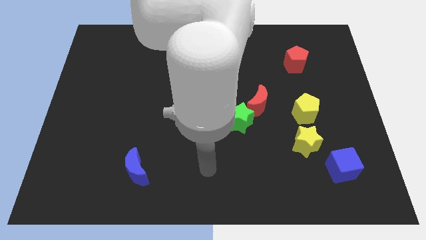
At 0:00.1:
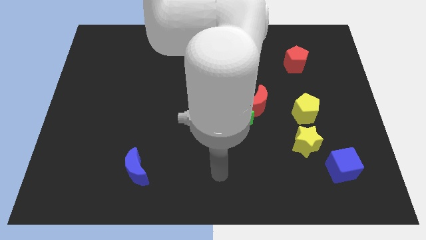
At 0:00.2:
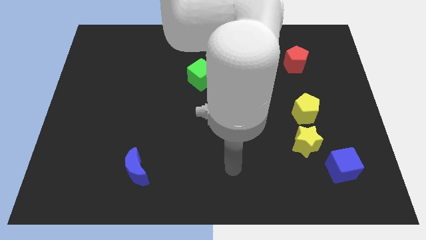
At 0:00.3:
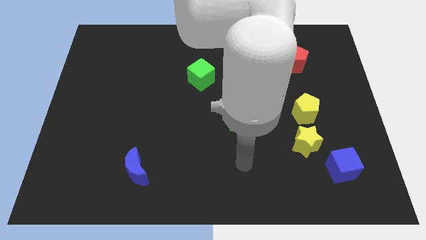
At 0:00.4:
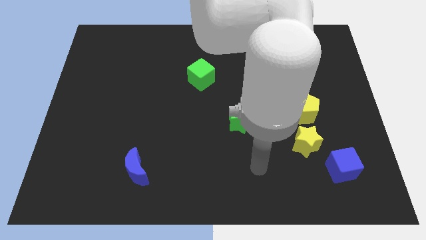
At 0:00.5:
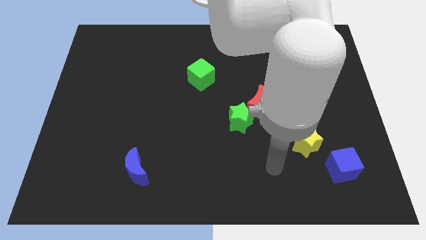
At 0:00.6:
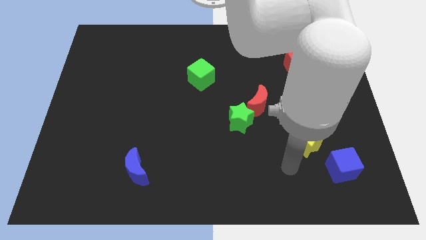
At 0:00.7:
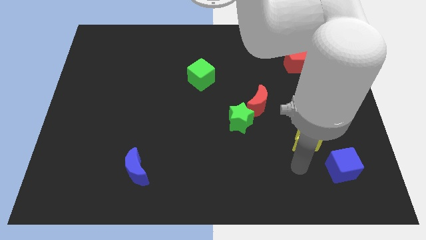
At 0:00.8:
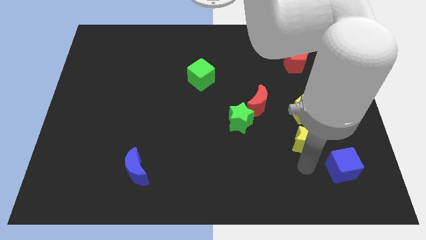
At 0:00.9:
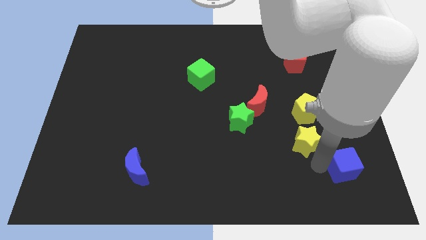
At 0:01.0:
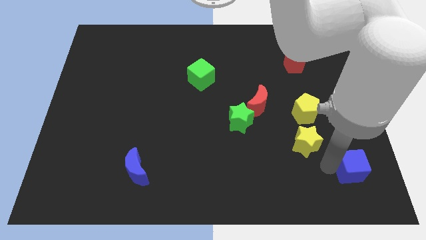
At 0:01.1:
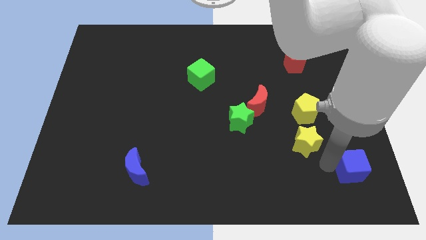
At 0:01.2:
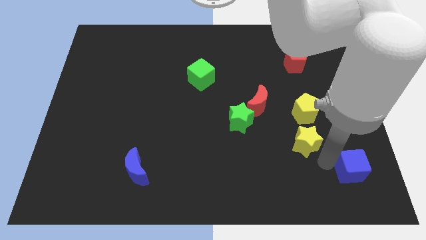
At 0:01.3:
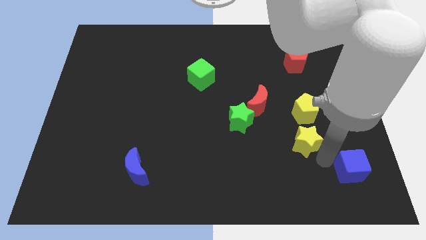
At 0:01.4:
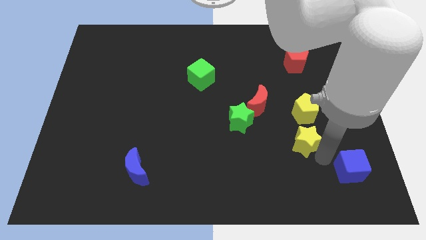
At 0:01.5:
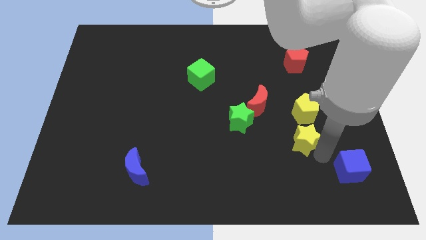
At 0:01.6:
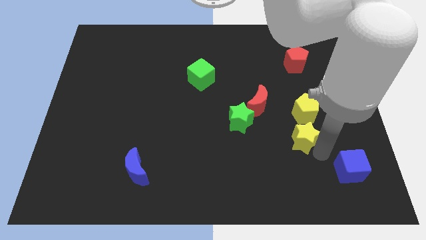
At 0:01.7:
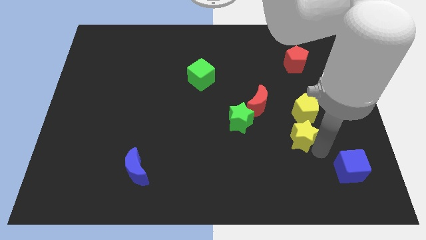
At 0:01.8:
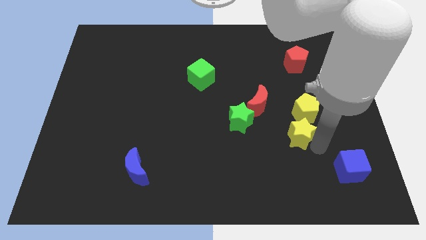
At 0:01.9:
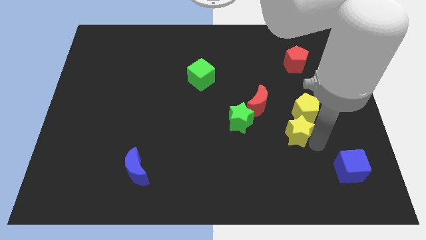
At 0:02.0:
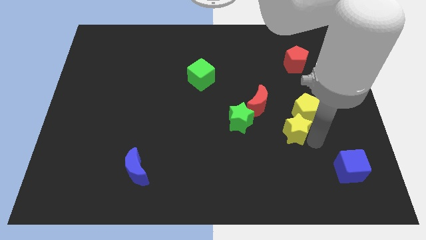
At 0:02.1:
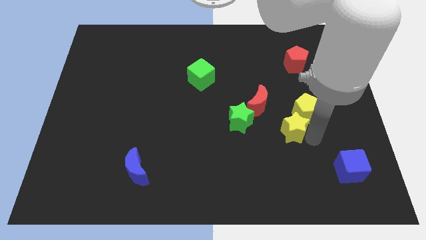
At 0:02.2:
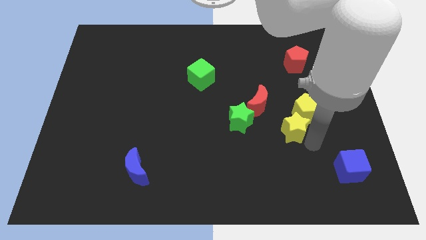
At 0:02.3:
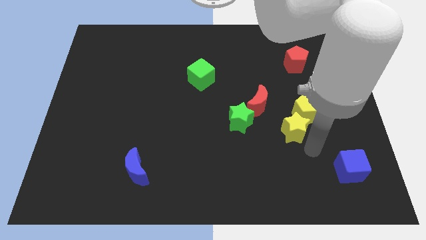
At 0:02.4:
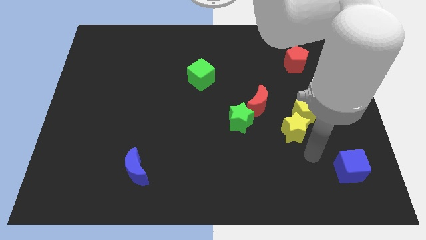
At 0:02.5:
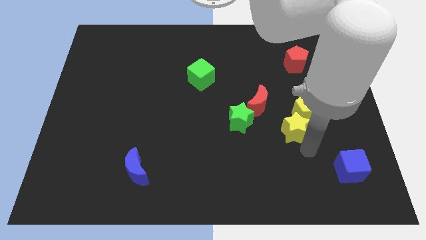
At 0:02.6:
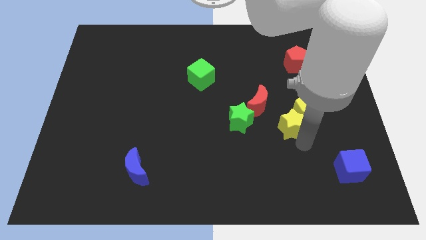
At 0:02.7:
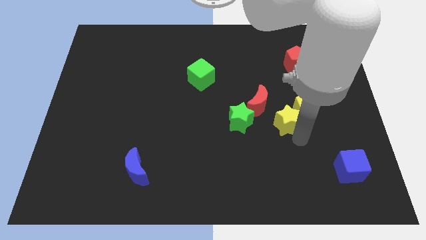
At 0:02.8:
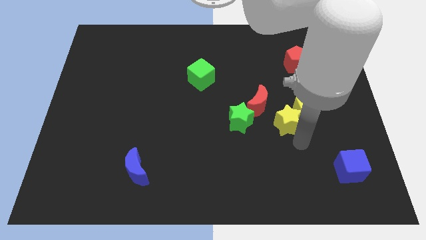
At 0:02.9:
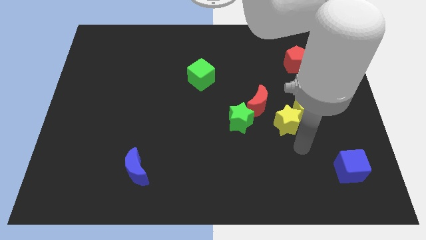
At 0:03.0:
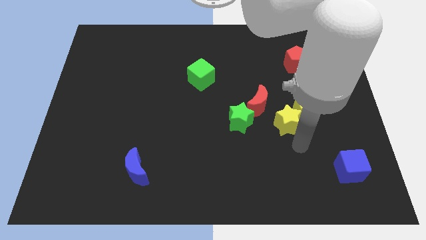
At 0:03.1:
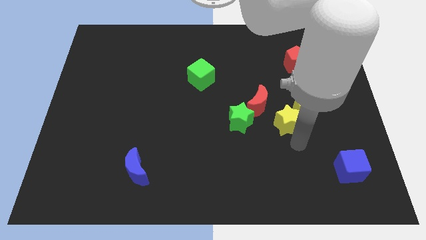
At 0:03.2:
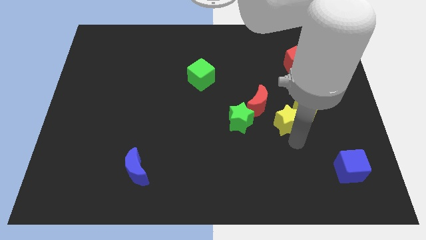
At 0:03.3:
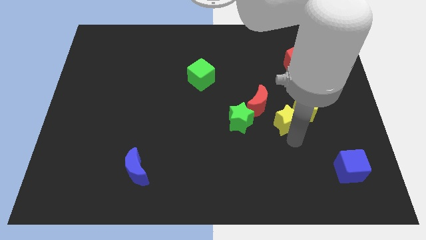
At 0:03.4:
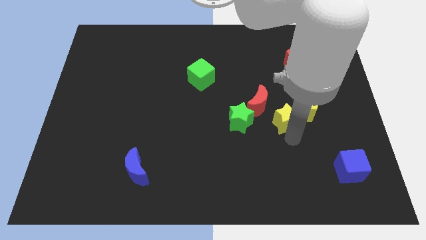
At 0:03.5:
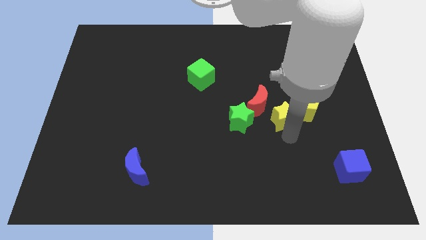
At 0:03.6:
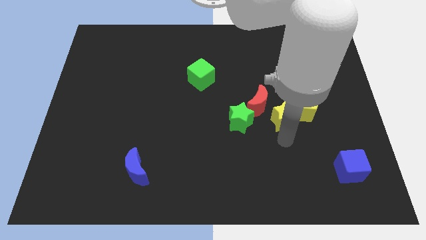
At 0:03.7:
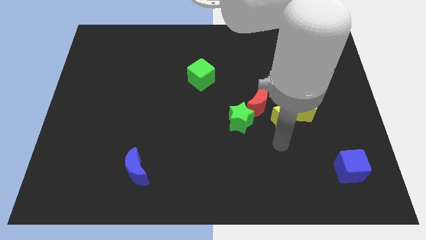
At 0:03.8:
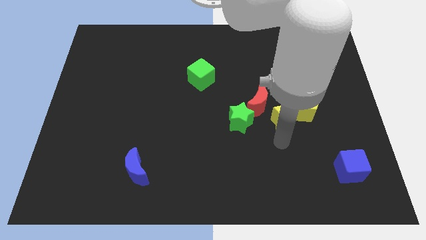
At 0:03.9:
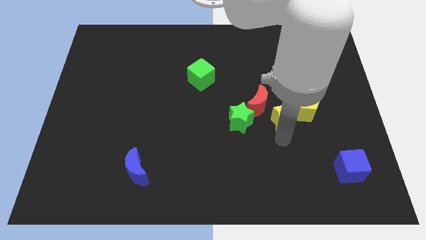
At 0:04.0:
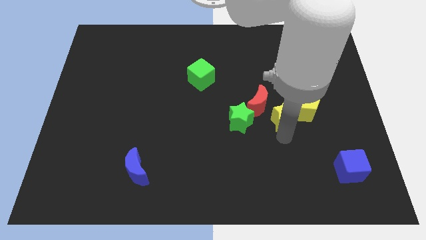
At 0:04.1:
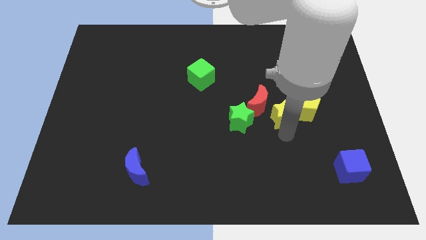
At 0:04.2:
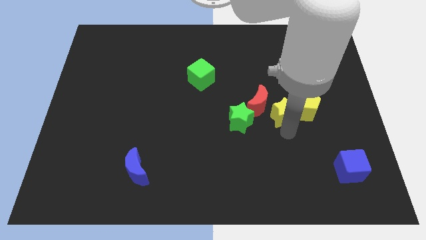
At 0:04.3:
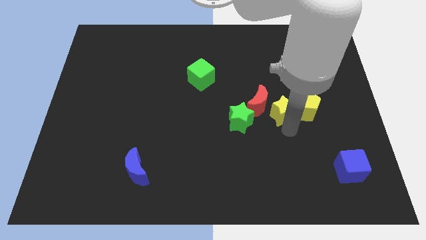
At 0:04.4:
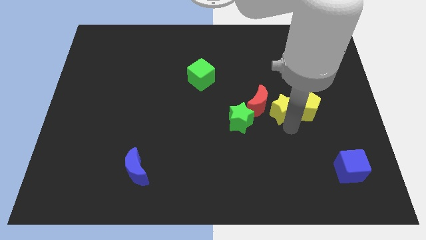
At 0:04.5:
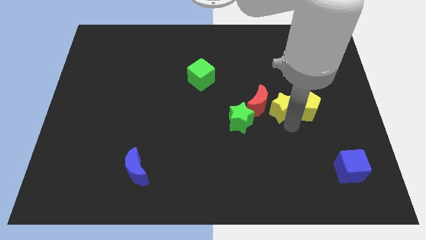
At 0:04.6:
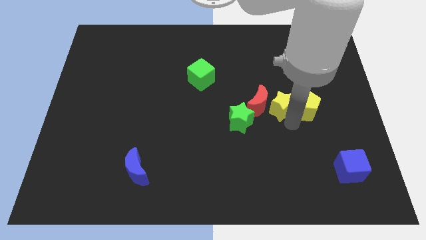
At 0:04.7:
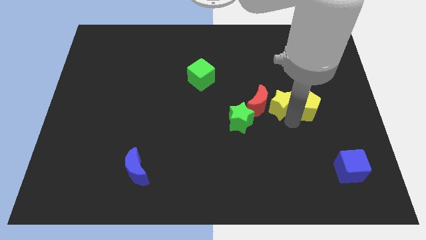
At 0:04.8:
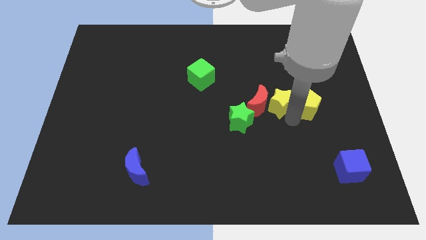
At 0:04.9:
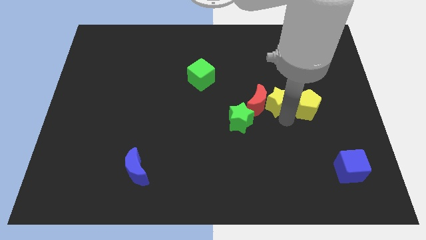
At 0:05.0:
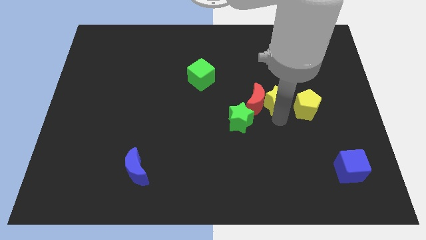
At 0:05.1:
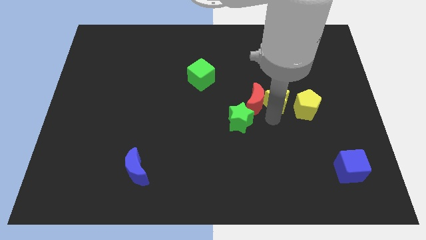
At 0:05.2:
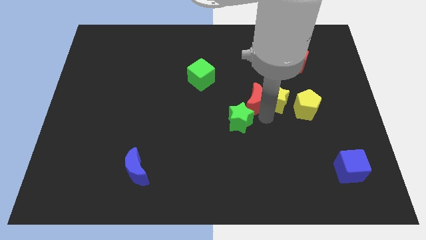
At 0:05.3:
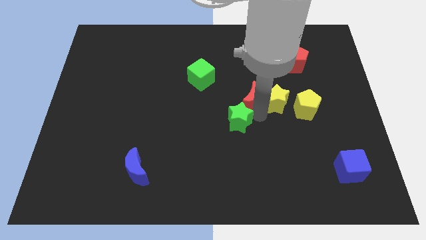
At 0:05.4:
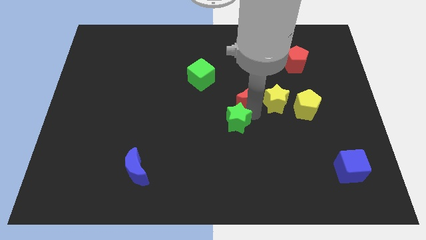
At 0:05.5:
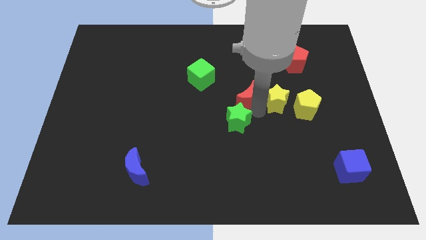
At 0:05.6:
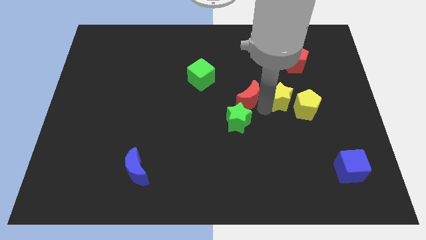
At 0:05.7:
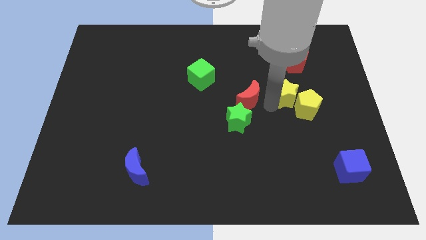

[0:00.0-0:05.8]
put the yellow star below the red pentagon

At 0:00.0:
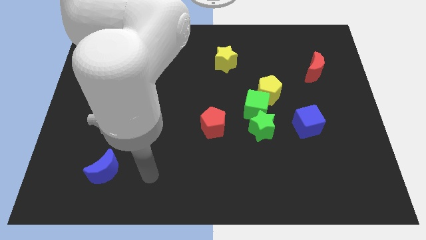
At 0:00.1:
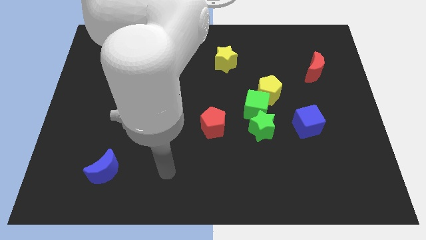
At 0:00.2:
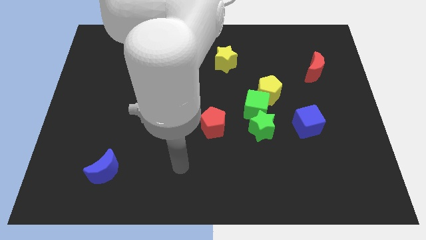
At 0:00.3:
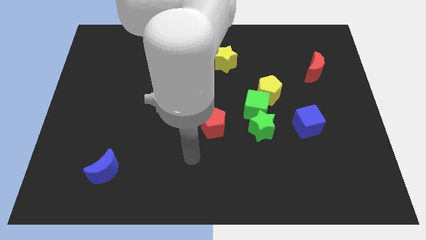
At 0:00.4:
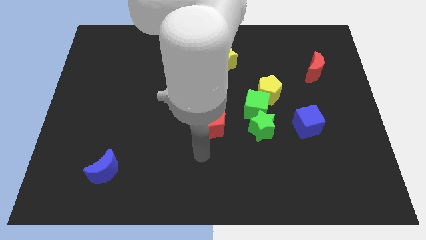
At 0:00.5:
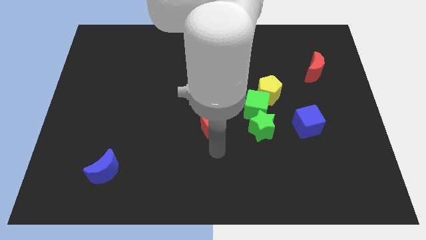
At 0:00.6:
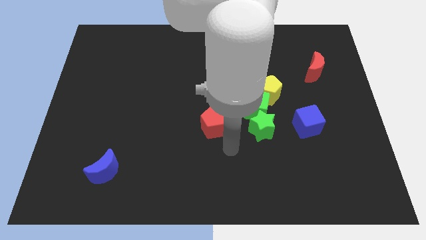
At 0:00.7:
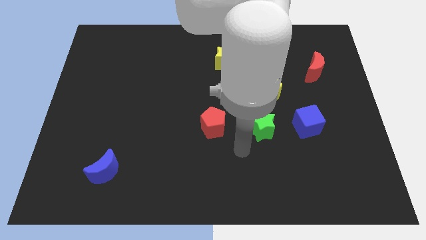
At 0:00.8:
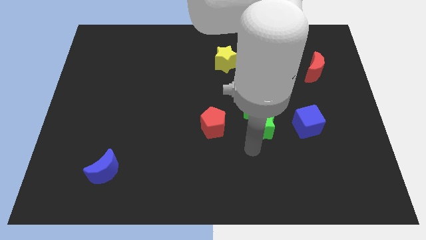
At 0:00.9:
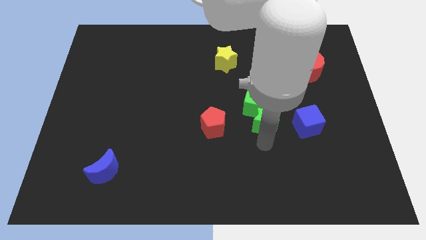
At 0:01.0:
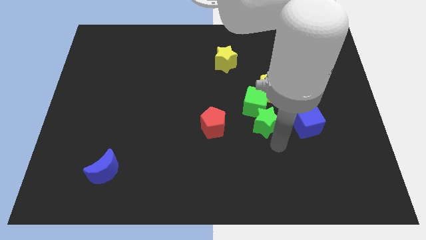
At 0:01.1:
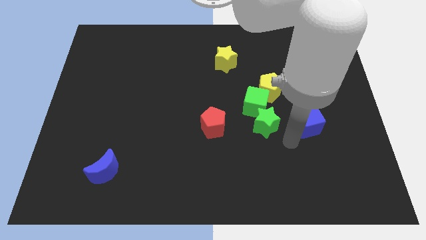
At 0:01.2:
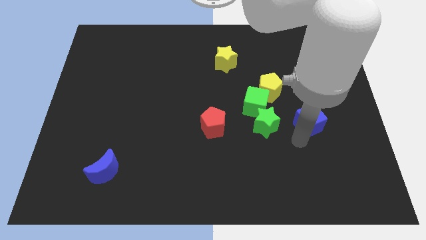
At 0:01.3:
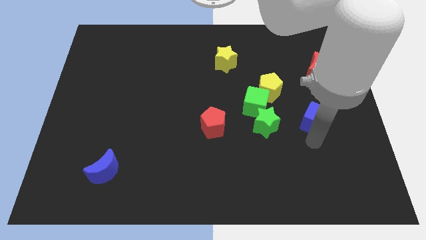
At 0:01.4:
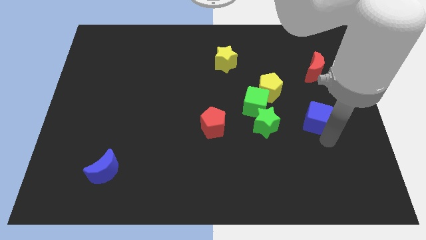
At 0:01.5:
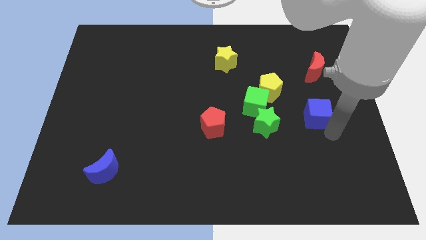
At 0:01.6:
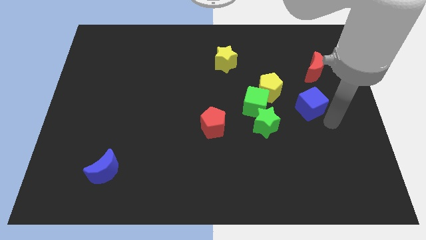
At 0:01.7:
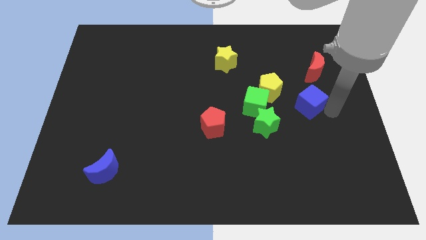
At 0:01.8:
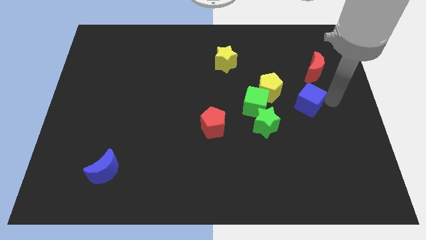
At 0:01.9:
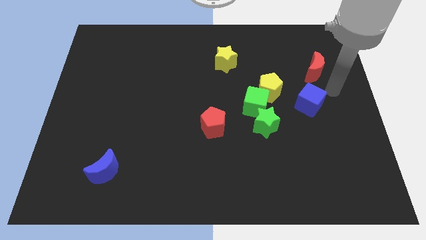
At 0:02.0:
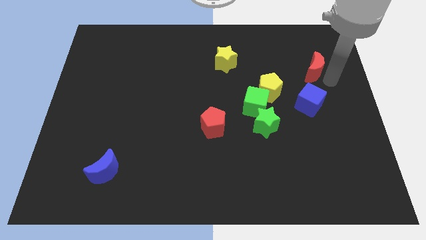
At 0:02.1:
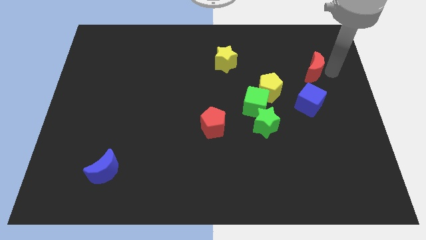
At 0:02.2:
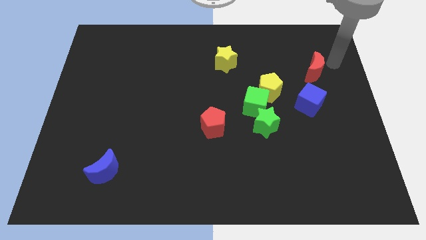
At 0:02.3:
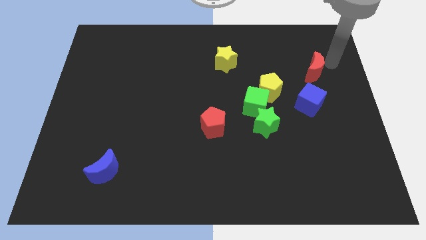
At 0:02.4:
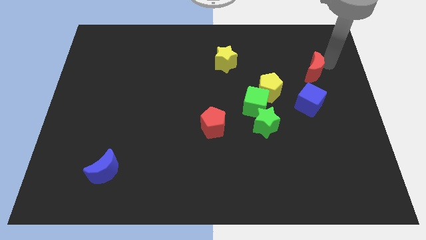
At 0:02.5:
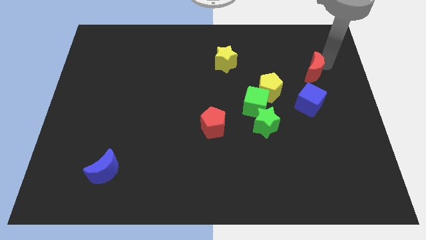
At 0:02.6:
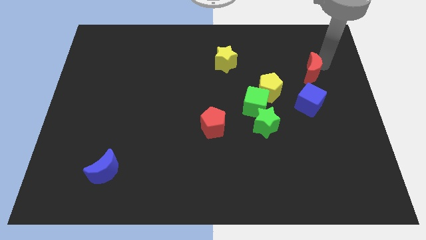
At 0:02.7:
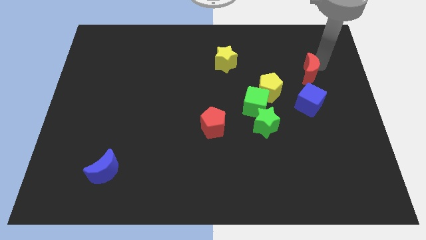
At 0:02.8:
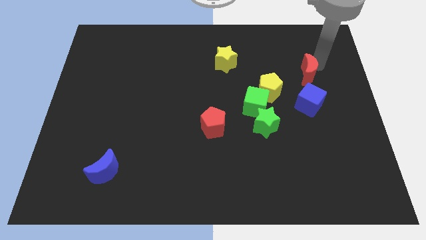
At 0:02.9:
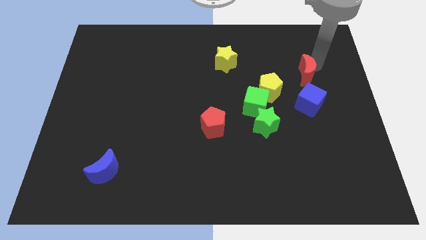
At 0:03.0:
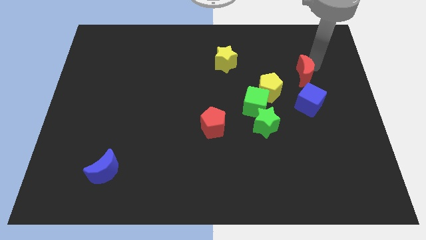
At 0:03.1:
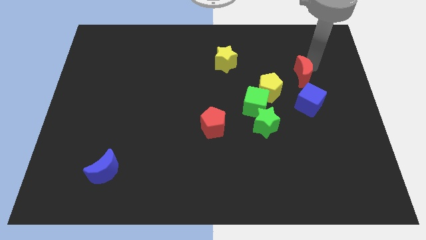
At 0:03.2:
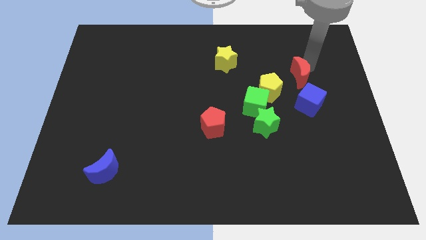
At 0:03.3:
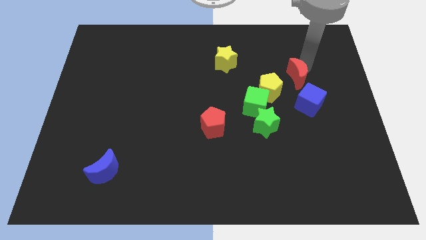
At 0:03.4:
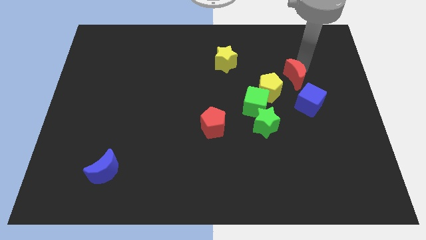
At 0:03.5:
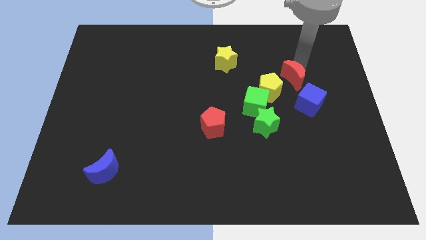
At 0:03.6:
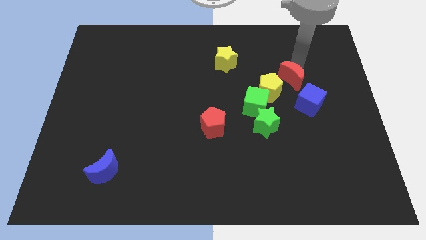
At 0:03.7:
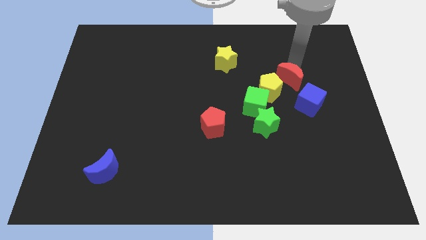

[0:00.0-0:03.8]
slide the red moon to the top right of the green cube
